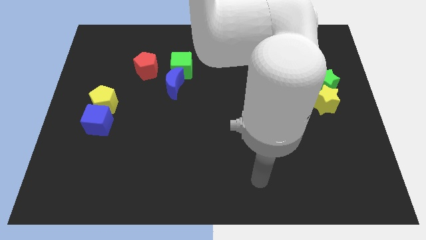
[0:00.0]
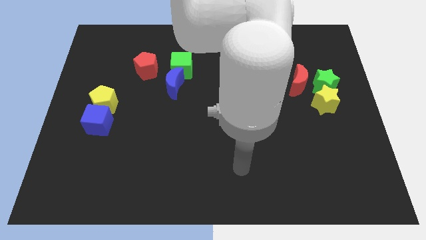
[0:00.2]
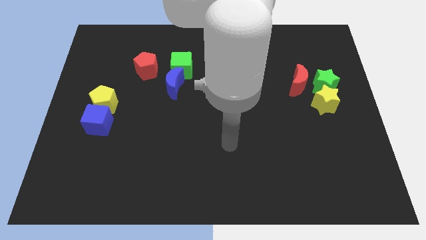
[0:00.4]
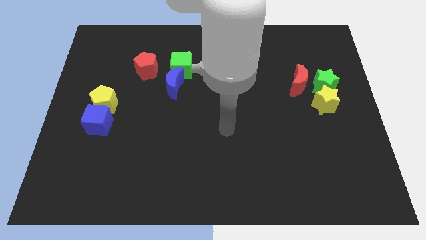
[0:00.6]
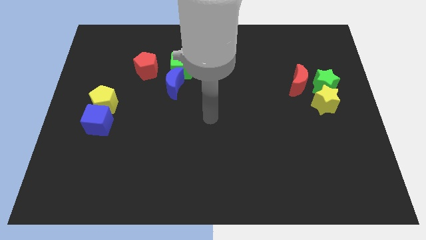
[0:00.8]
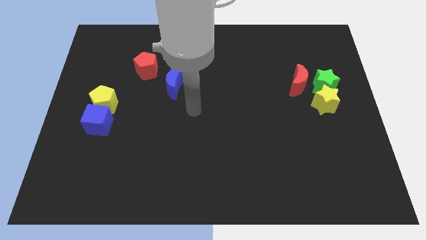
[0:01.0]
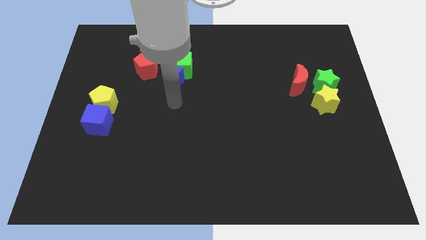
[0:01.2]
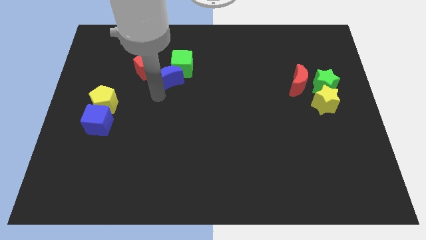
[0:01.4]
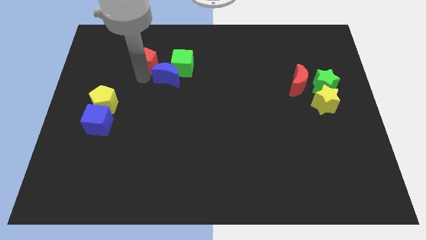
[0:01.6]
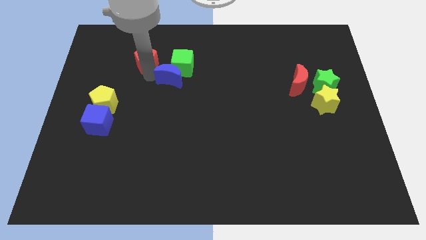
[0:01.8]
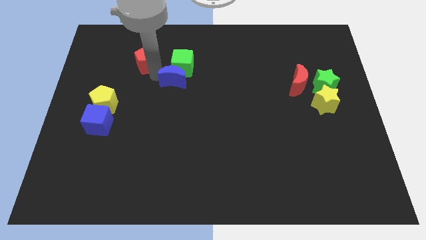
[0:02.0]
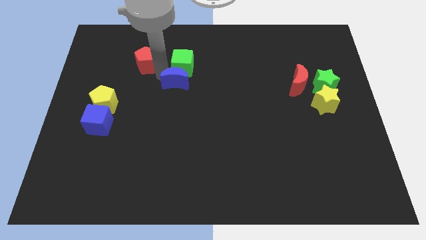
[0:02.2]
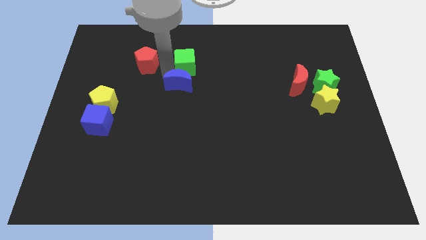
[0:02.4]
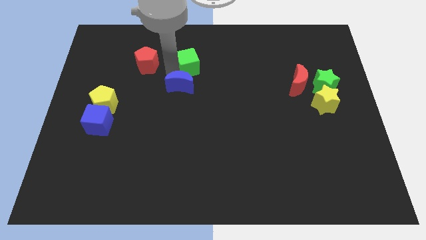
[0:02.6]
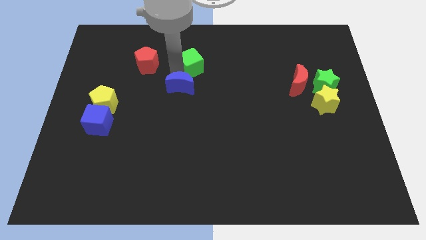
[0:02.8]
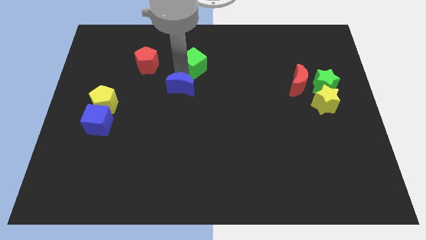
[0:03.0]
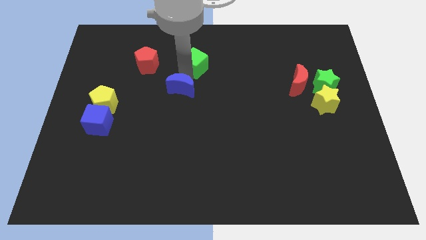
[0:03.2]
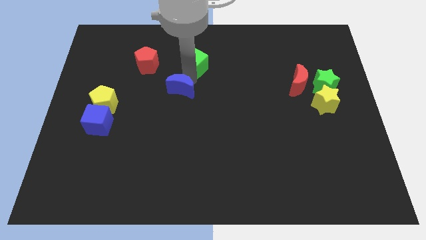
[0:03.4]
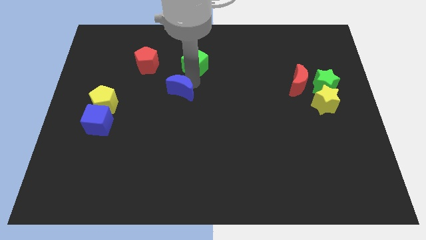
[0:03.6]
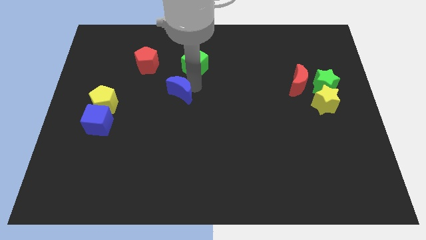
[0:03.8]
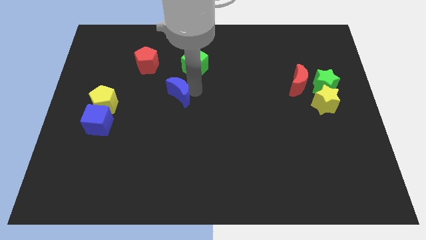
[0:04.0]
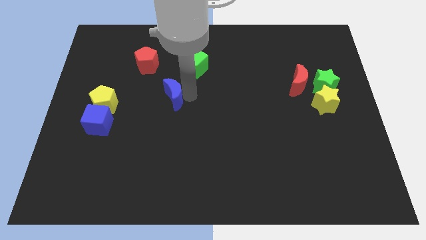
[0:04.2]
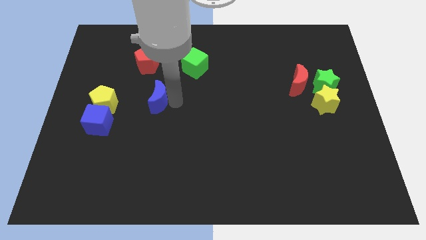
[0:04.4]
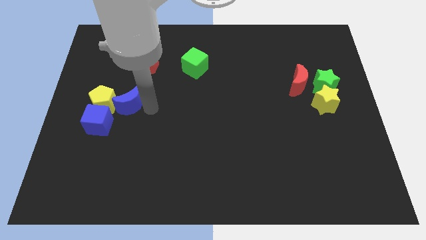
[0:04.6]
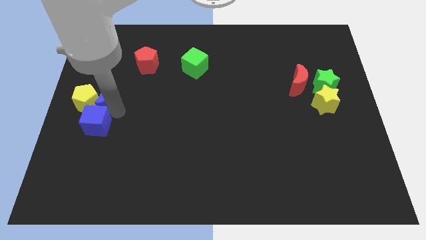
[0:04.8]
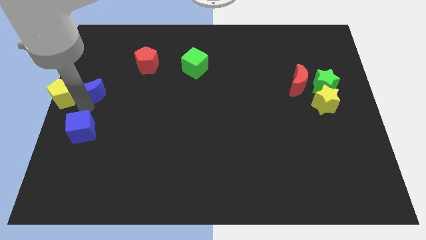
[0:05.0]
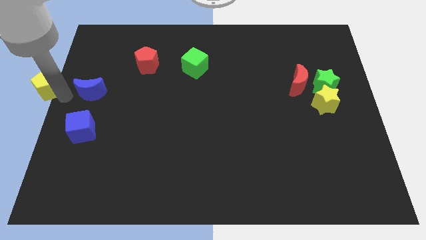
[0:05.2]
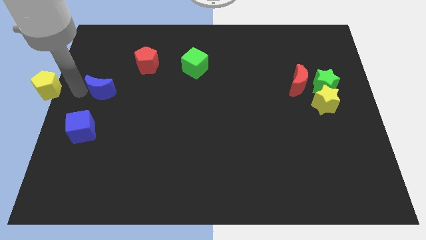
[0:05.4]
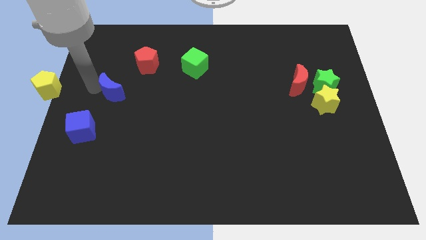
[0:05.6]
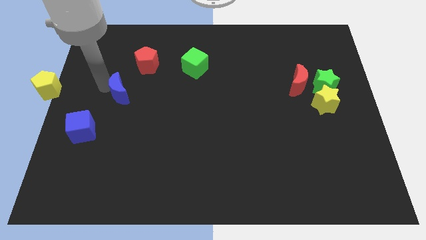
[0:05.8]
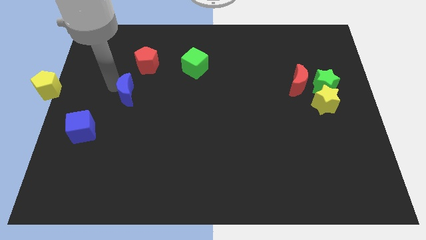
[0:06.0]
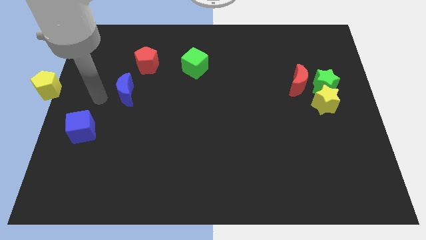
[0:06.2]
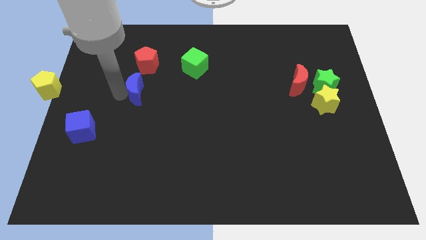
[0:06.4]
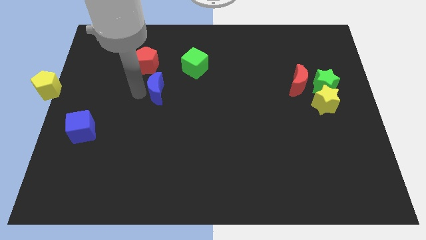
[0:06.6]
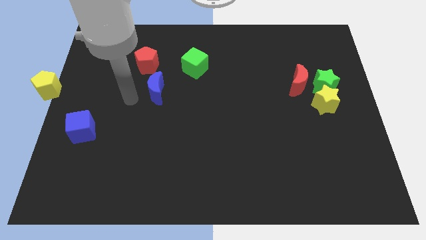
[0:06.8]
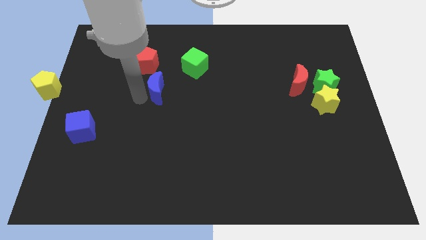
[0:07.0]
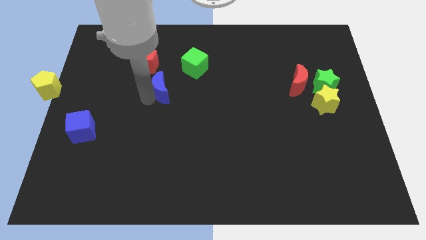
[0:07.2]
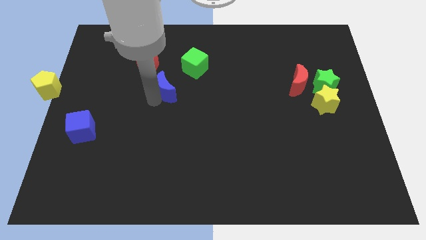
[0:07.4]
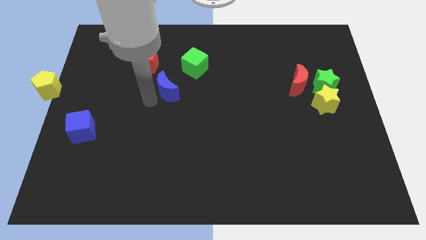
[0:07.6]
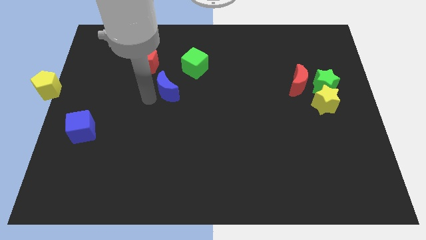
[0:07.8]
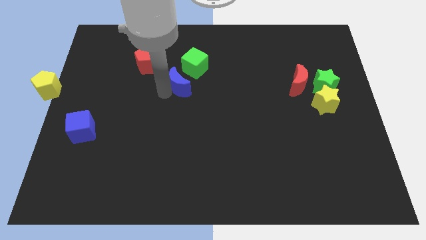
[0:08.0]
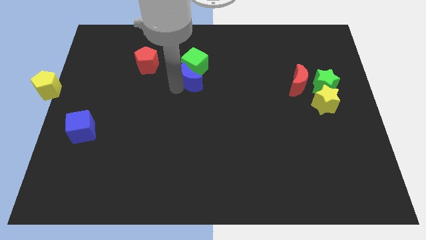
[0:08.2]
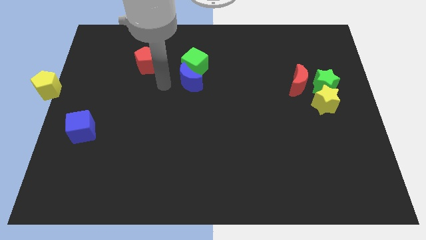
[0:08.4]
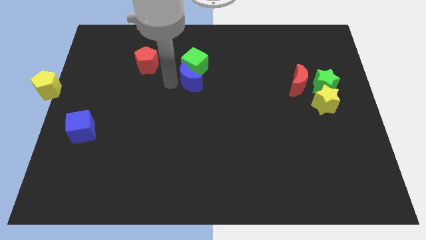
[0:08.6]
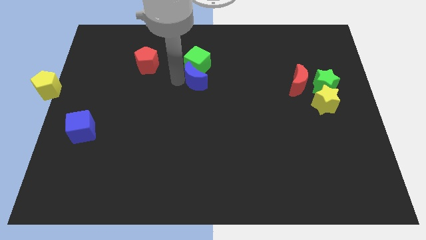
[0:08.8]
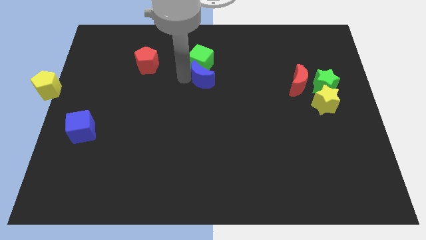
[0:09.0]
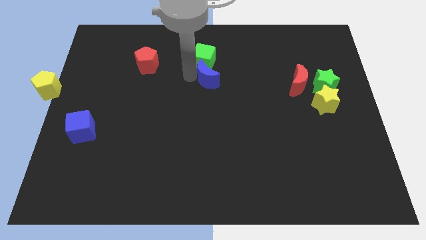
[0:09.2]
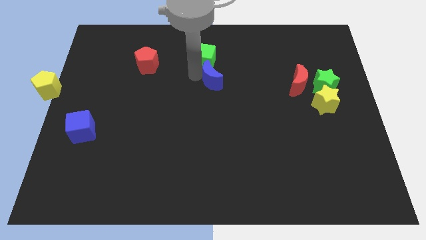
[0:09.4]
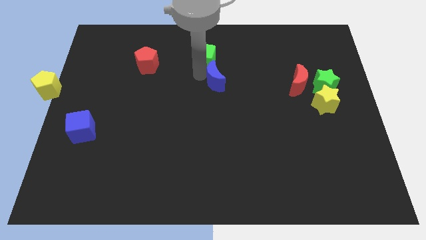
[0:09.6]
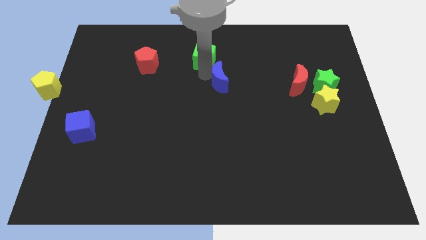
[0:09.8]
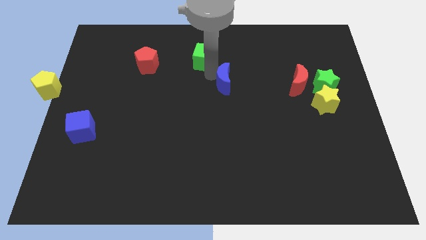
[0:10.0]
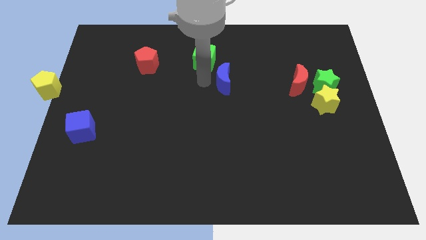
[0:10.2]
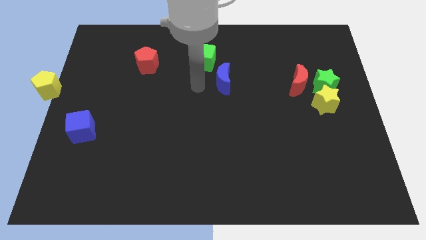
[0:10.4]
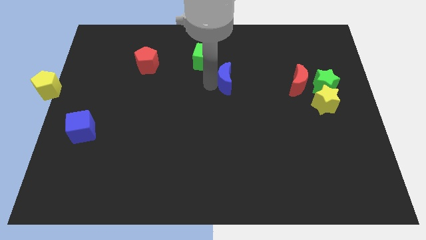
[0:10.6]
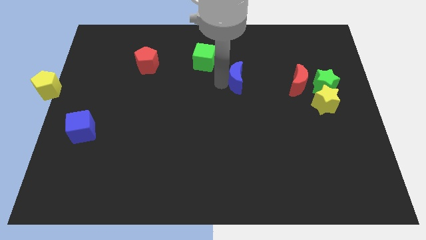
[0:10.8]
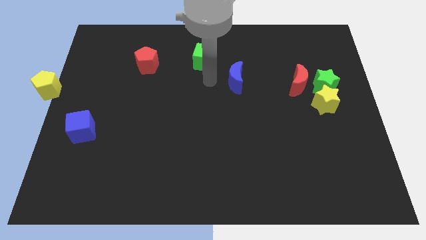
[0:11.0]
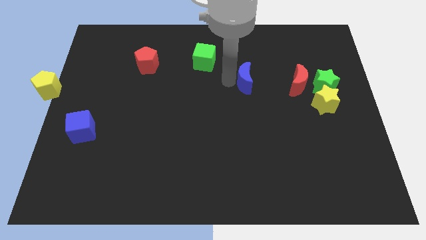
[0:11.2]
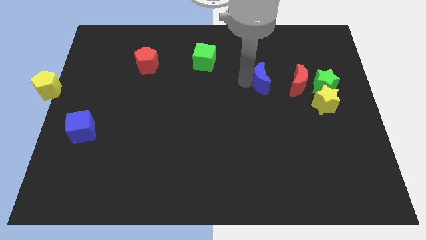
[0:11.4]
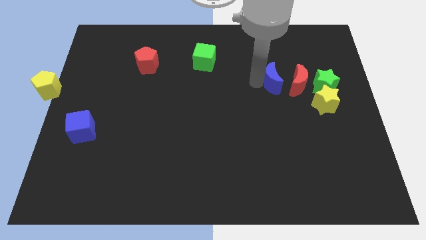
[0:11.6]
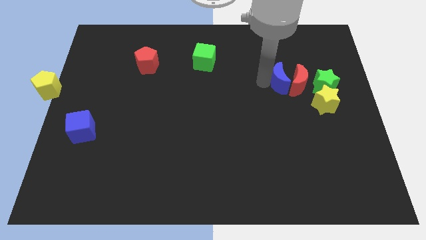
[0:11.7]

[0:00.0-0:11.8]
slide the blue moon close to the red moon

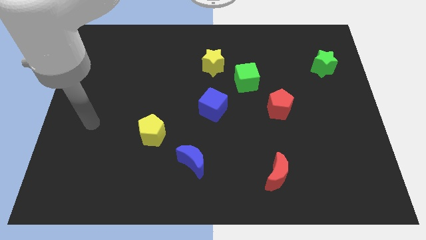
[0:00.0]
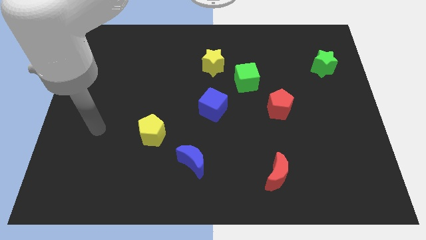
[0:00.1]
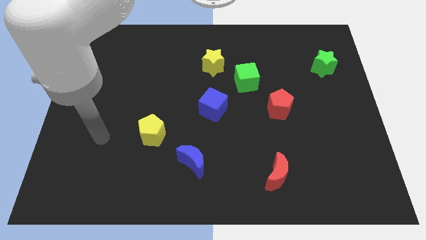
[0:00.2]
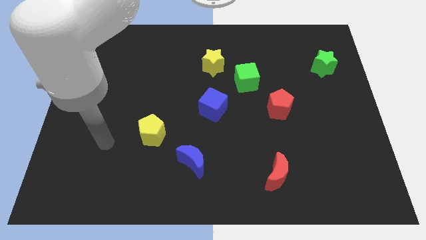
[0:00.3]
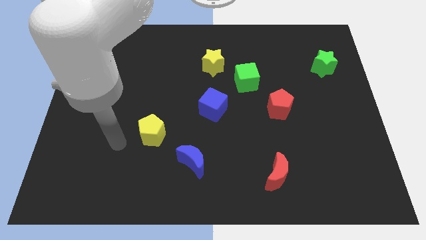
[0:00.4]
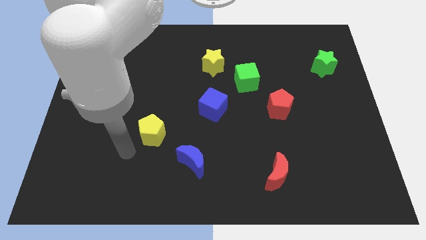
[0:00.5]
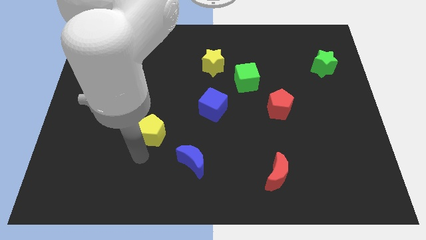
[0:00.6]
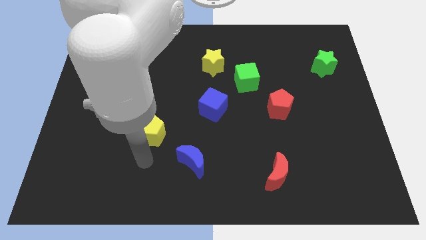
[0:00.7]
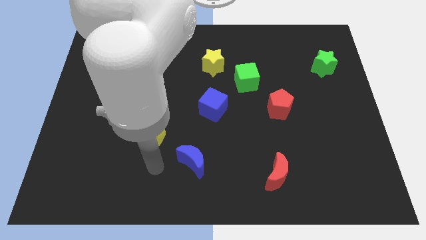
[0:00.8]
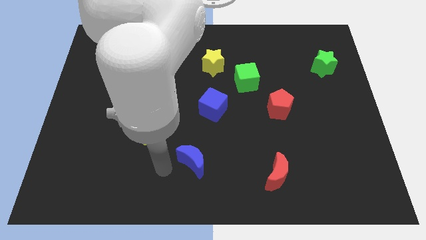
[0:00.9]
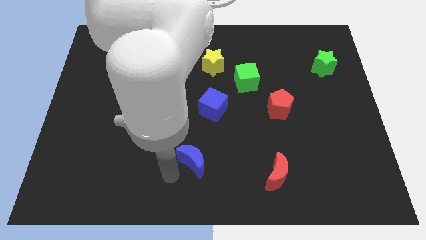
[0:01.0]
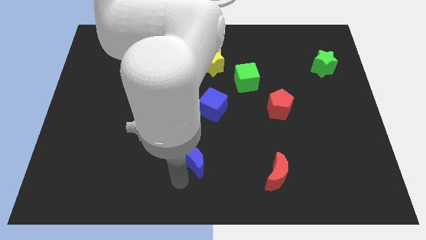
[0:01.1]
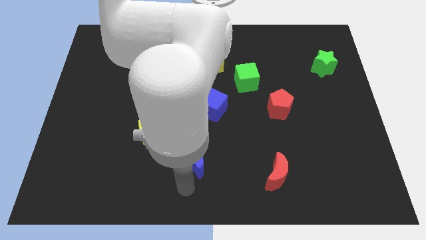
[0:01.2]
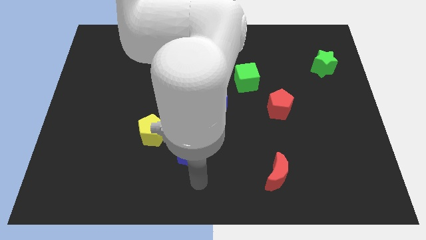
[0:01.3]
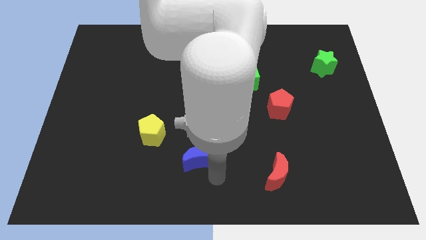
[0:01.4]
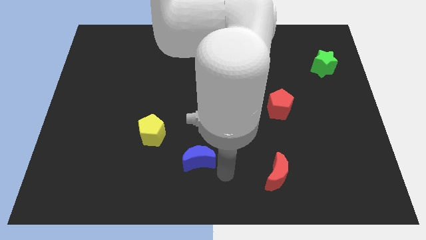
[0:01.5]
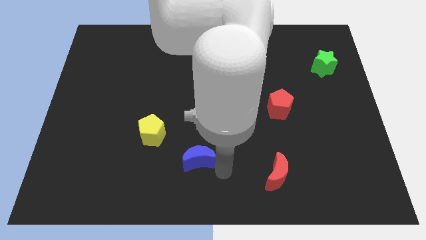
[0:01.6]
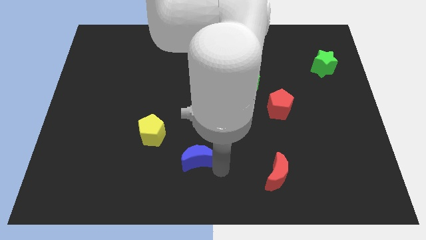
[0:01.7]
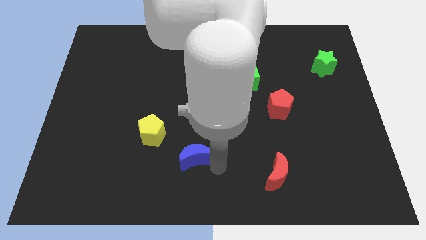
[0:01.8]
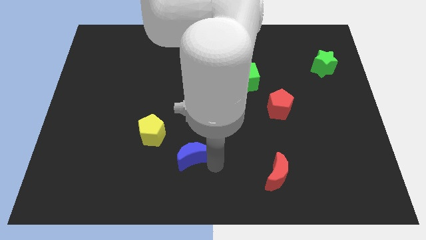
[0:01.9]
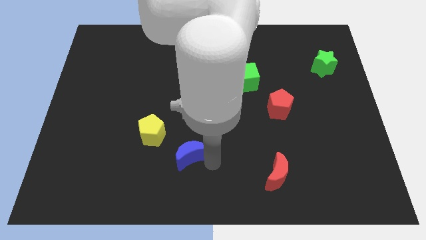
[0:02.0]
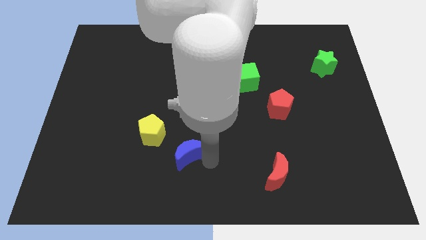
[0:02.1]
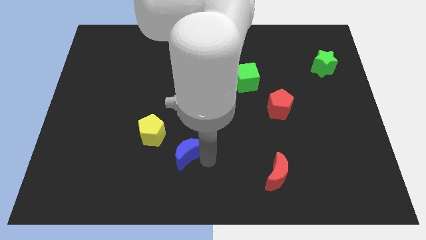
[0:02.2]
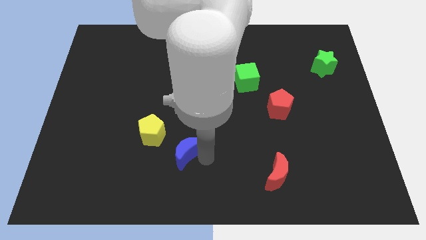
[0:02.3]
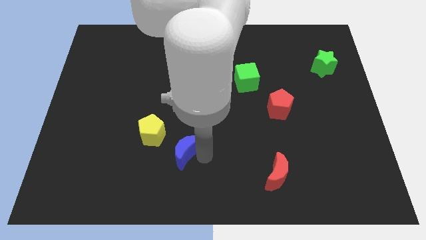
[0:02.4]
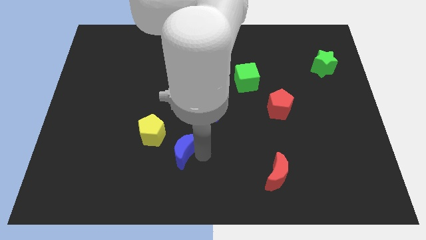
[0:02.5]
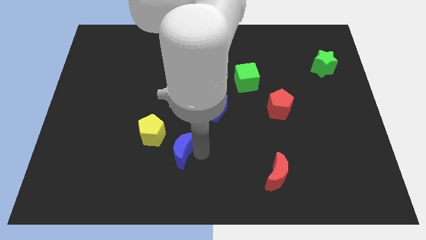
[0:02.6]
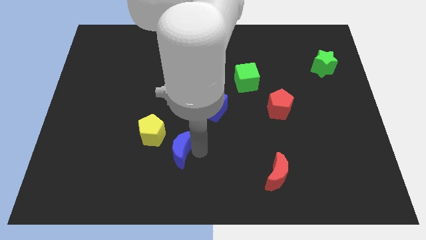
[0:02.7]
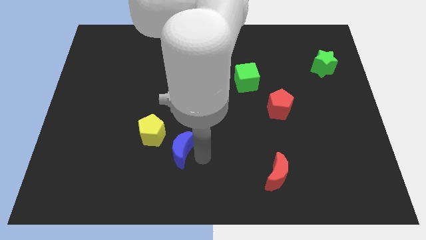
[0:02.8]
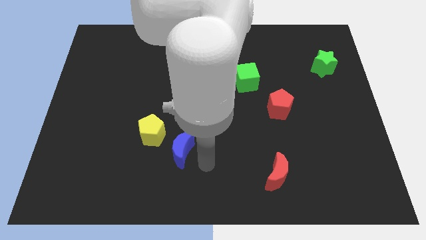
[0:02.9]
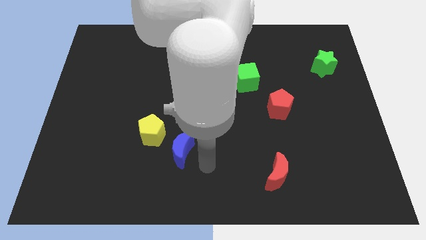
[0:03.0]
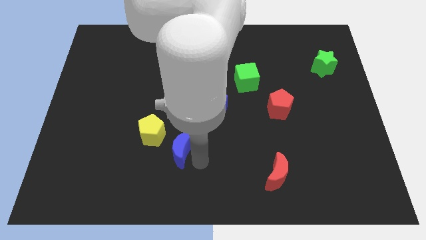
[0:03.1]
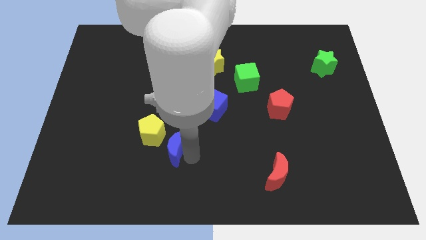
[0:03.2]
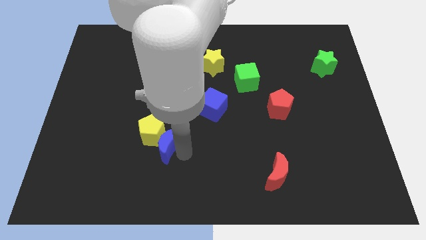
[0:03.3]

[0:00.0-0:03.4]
put the blue moon to the yellow pentagon
